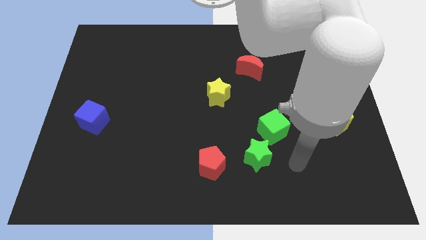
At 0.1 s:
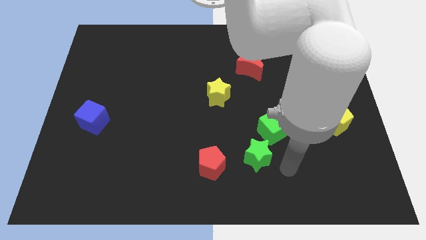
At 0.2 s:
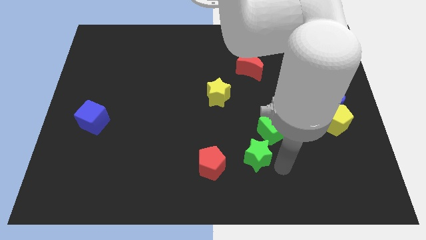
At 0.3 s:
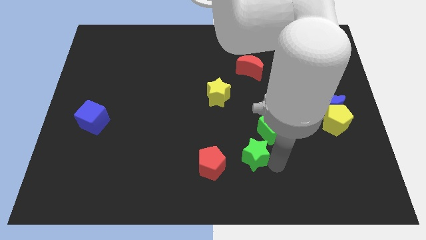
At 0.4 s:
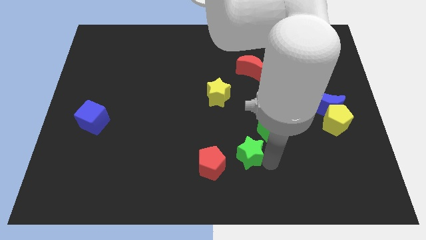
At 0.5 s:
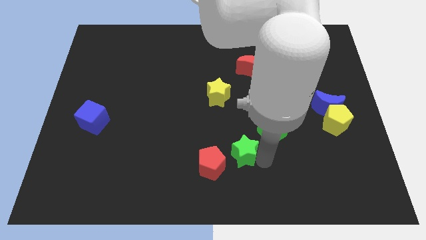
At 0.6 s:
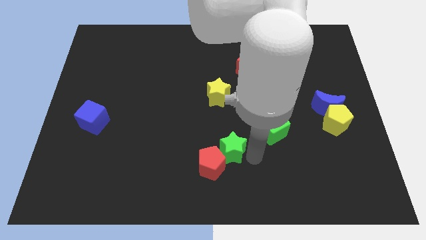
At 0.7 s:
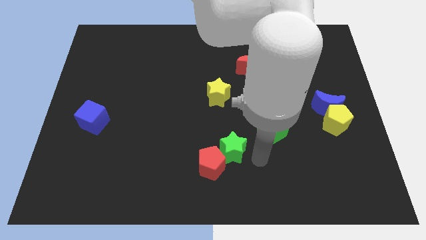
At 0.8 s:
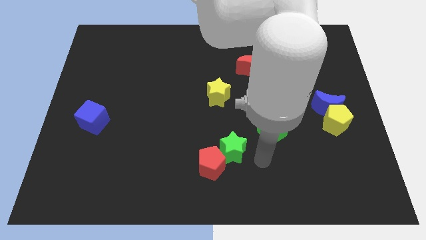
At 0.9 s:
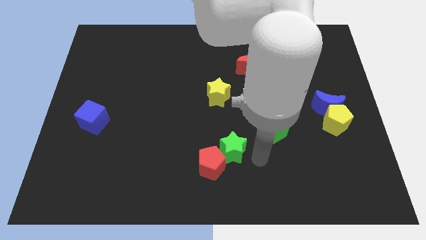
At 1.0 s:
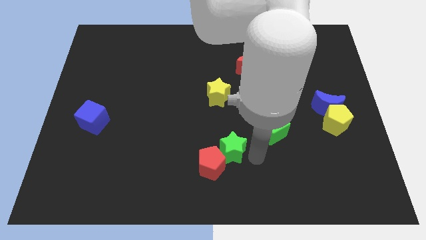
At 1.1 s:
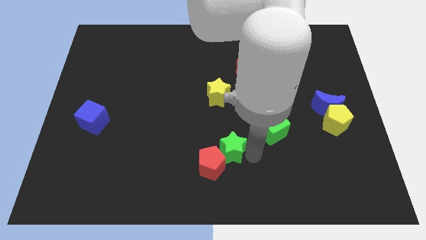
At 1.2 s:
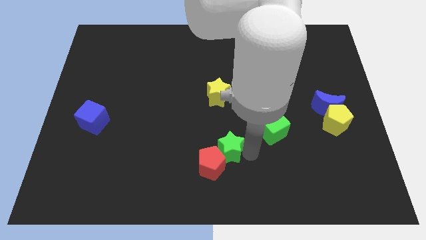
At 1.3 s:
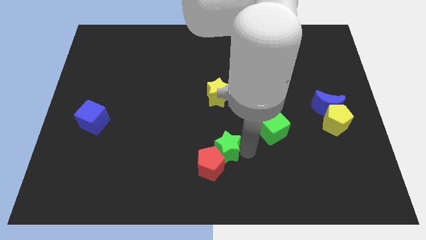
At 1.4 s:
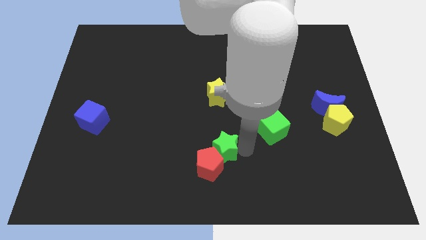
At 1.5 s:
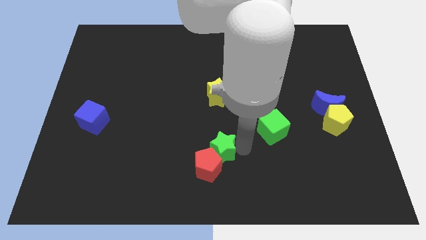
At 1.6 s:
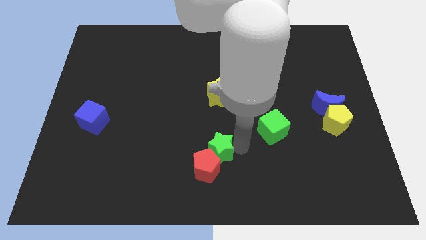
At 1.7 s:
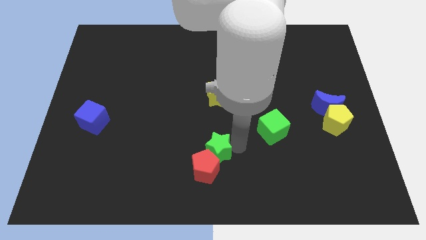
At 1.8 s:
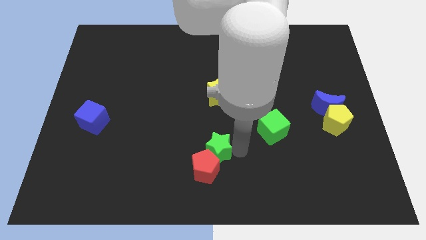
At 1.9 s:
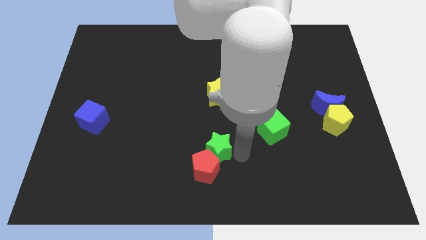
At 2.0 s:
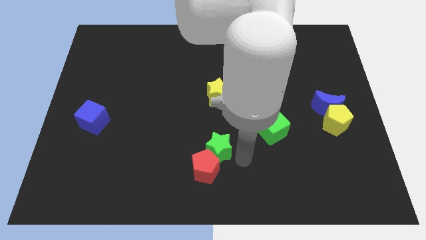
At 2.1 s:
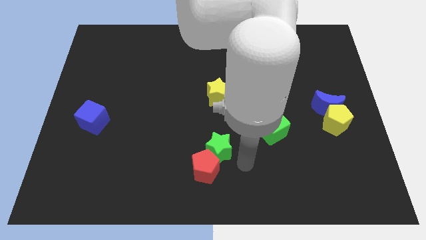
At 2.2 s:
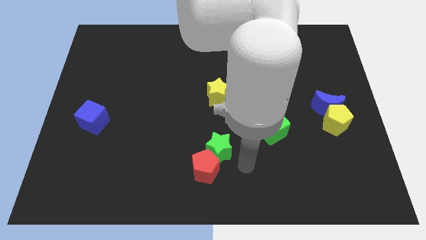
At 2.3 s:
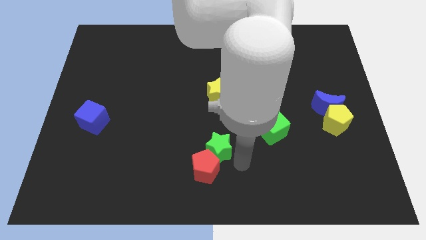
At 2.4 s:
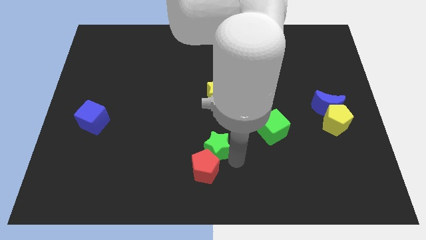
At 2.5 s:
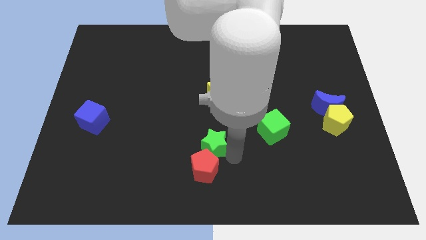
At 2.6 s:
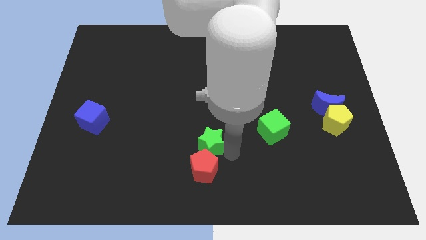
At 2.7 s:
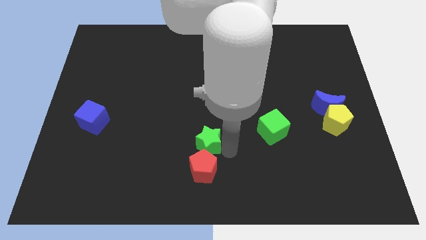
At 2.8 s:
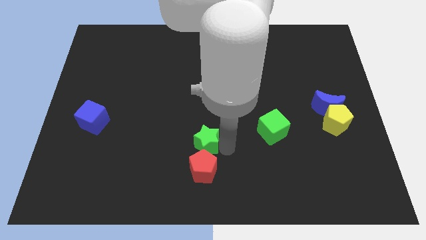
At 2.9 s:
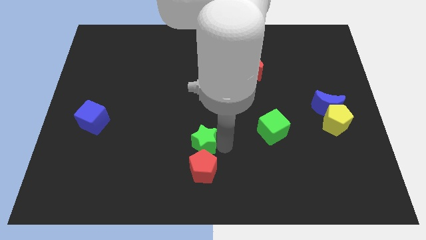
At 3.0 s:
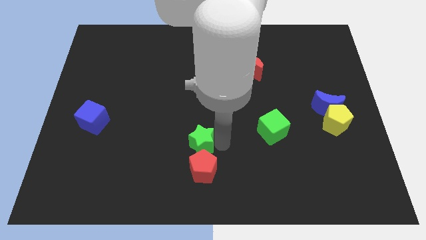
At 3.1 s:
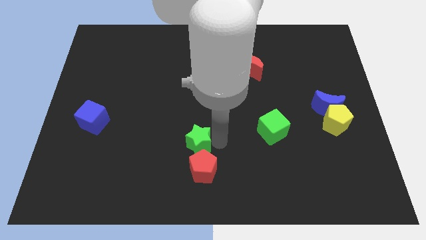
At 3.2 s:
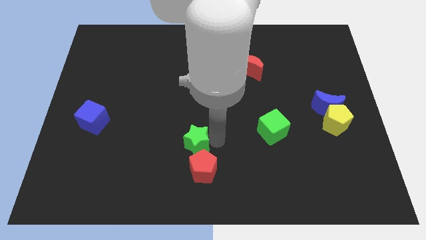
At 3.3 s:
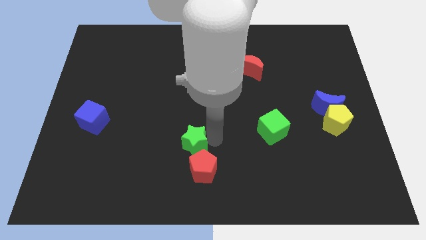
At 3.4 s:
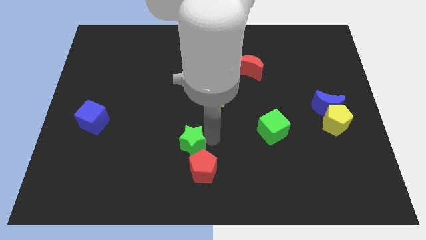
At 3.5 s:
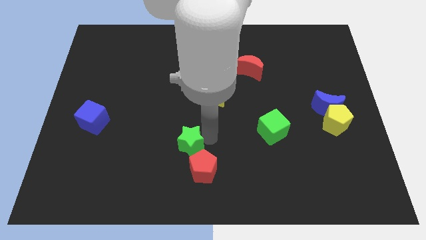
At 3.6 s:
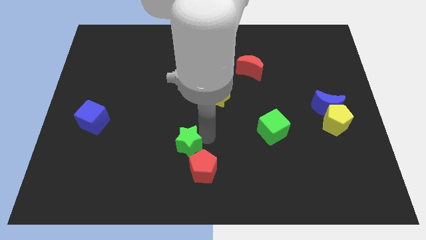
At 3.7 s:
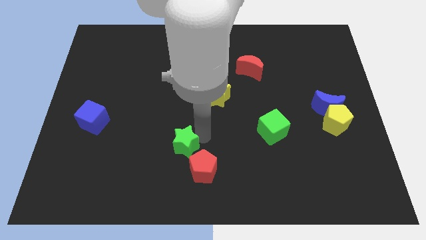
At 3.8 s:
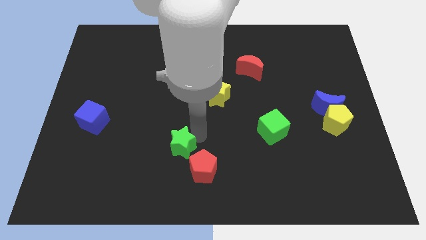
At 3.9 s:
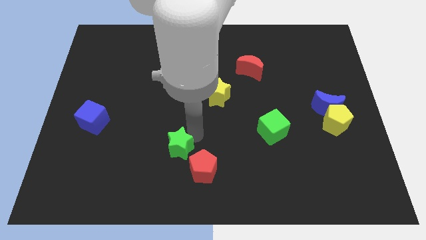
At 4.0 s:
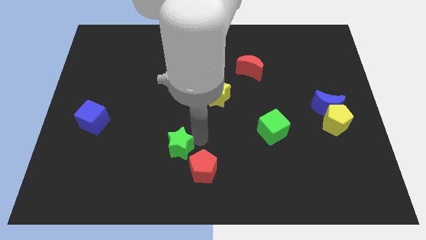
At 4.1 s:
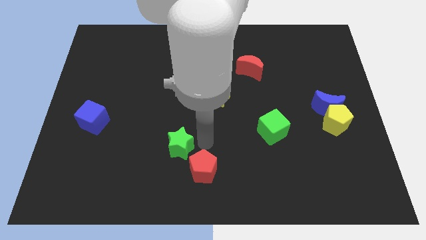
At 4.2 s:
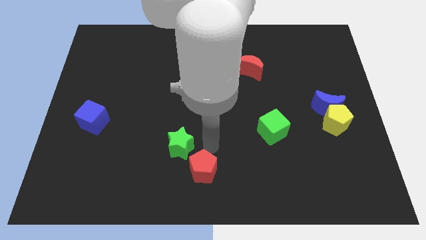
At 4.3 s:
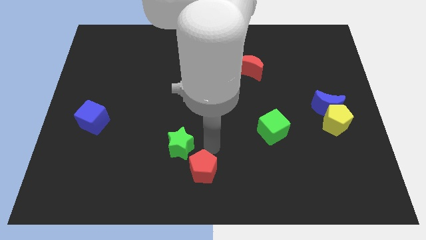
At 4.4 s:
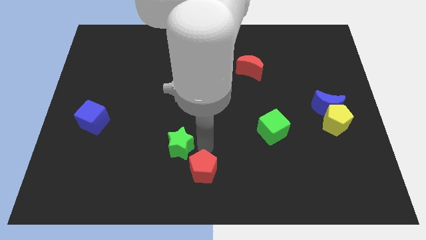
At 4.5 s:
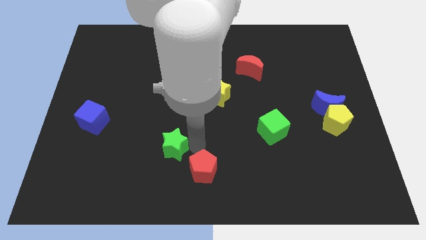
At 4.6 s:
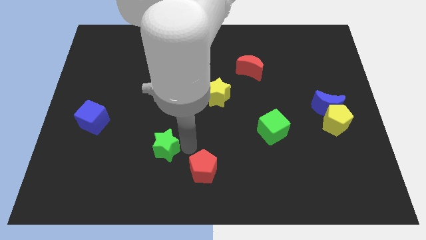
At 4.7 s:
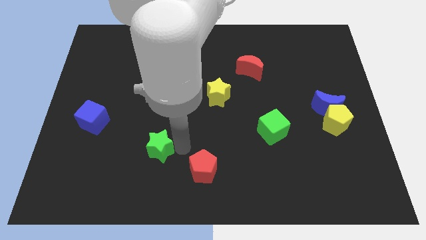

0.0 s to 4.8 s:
slide the green star to the left

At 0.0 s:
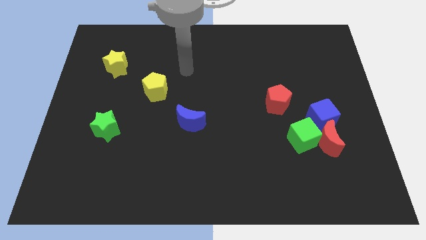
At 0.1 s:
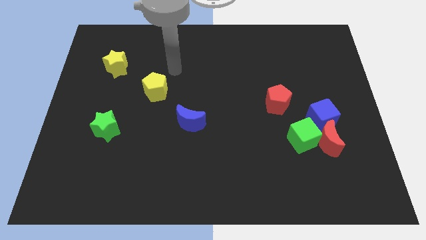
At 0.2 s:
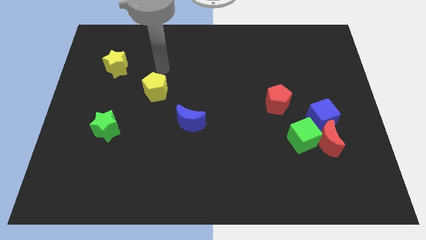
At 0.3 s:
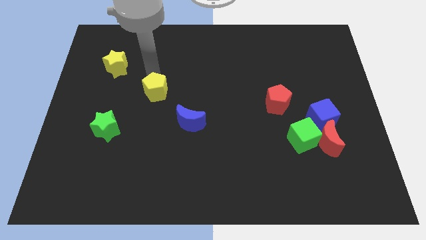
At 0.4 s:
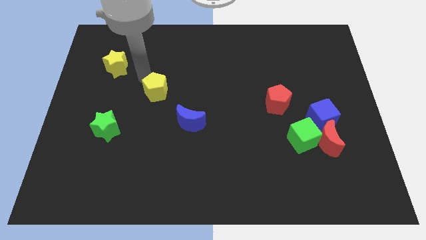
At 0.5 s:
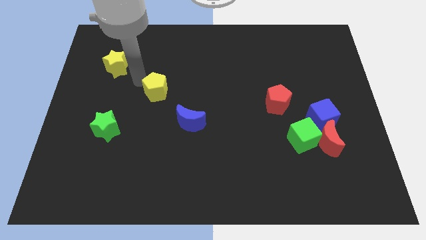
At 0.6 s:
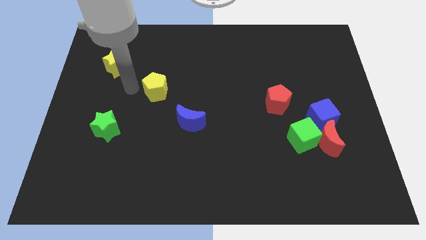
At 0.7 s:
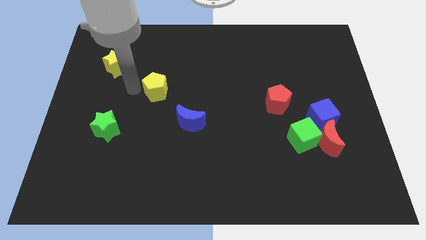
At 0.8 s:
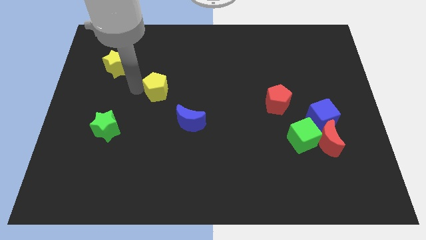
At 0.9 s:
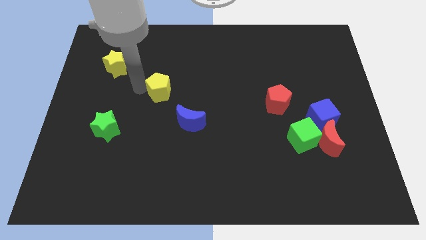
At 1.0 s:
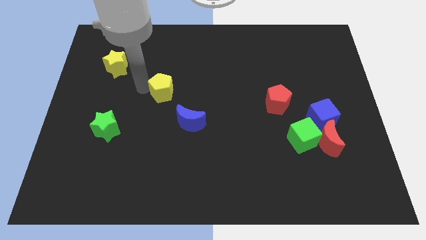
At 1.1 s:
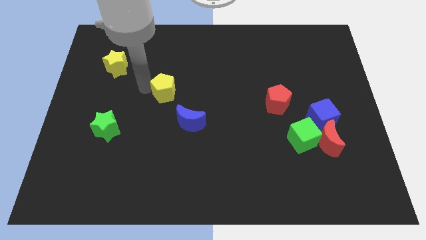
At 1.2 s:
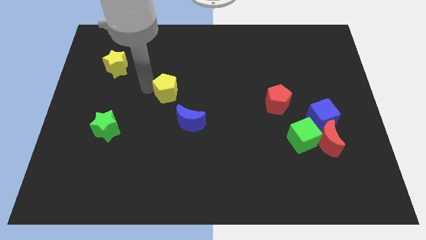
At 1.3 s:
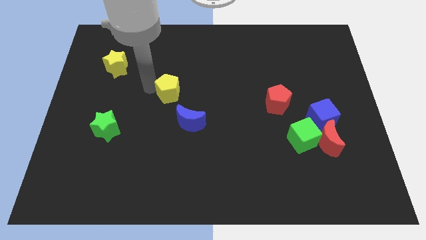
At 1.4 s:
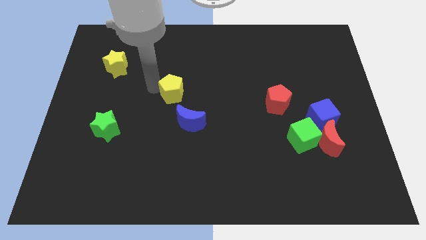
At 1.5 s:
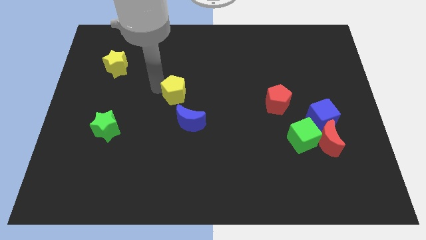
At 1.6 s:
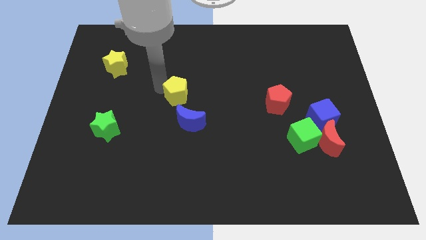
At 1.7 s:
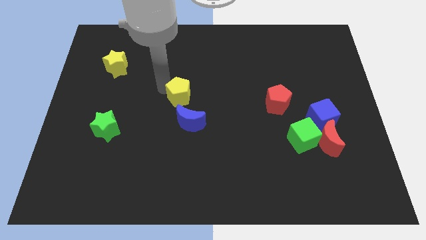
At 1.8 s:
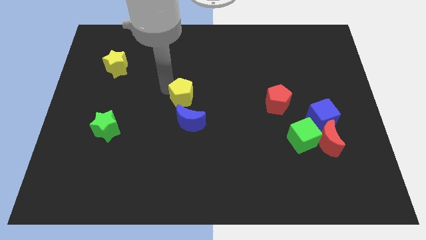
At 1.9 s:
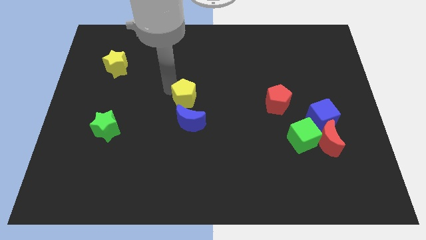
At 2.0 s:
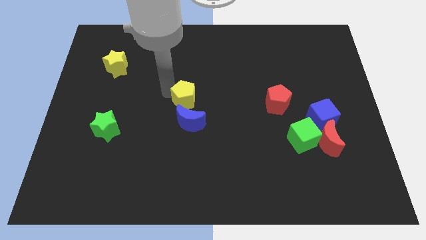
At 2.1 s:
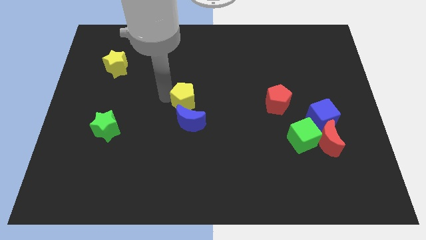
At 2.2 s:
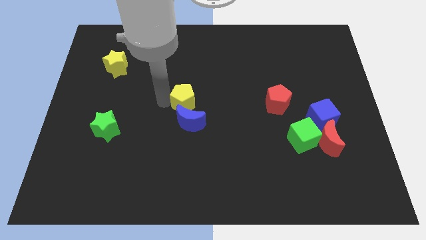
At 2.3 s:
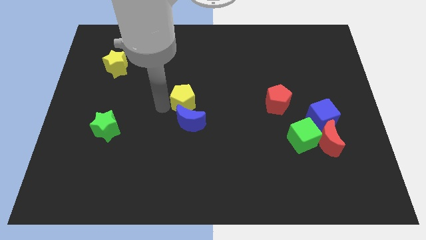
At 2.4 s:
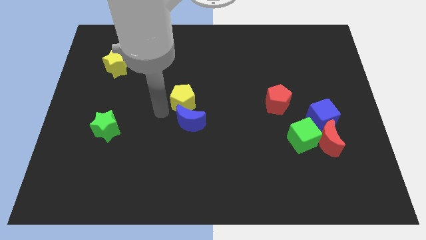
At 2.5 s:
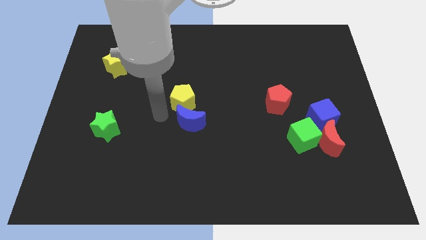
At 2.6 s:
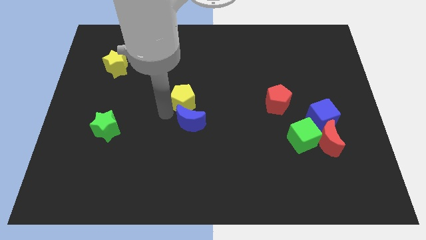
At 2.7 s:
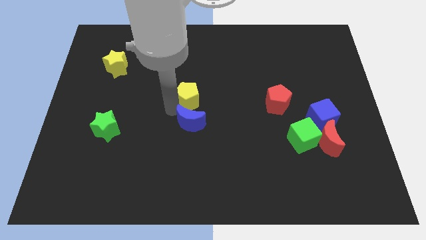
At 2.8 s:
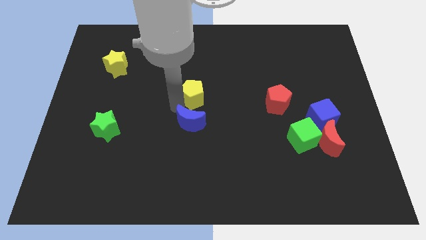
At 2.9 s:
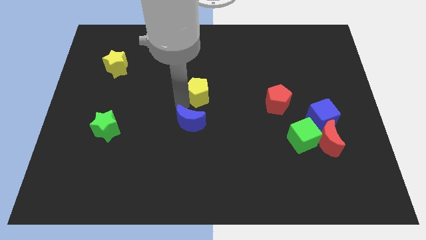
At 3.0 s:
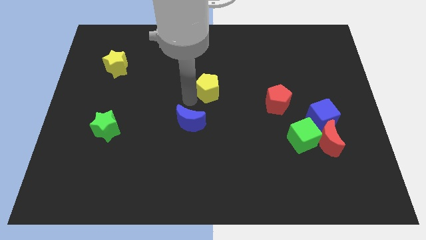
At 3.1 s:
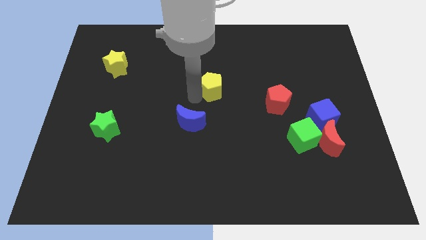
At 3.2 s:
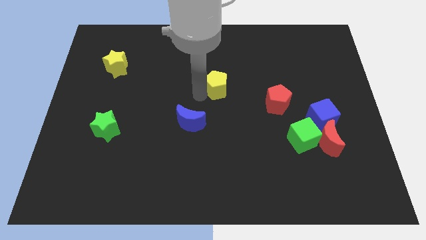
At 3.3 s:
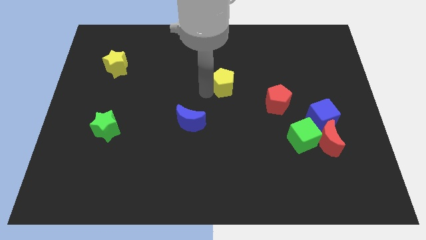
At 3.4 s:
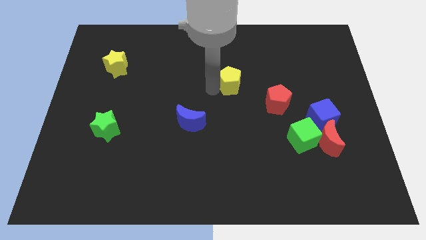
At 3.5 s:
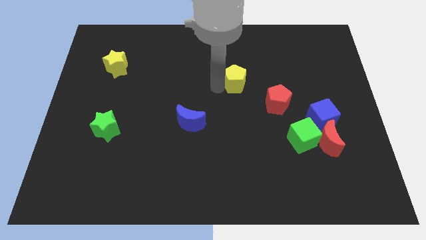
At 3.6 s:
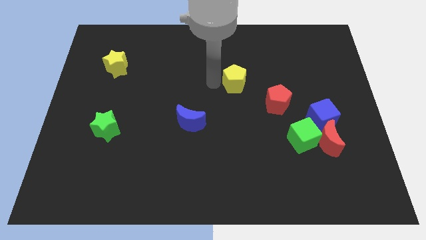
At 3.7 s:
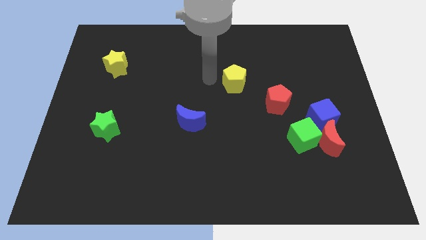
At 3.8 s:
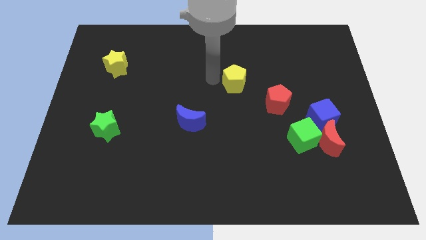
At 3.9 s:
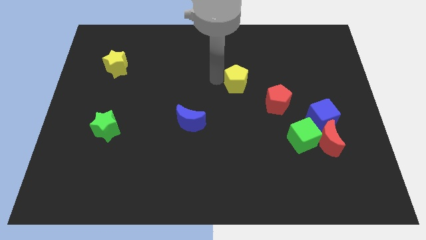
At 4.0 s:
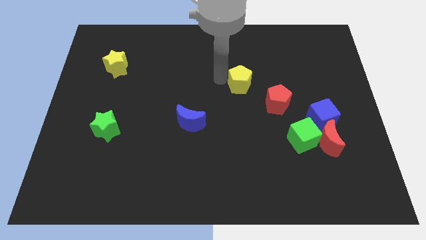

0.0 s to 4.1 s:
move the yellow pentagon to the right
